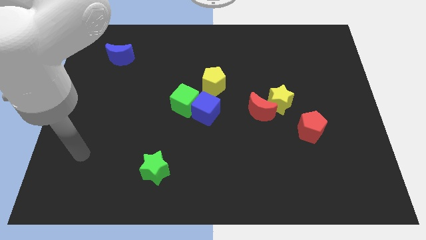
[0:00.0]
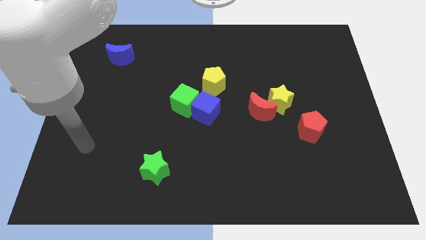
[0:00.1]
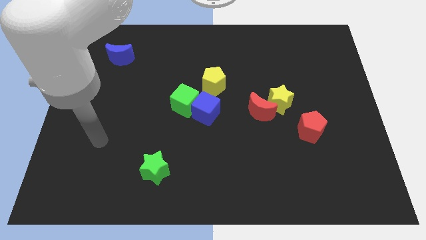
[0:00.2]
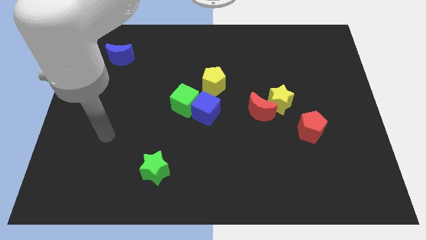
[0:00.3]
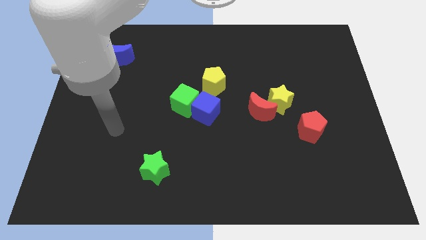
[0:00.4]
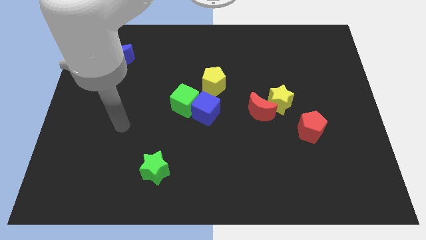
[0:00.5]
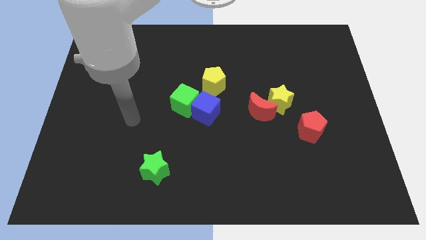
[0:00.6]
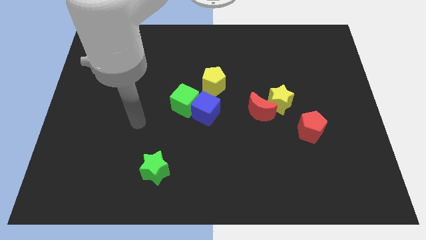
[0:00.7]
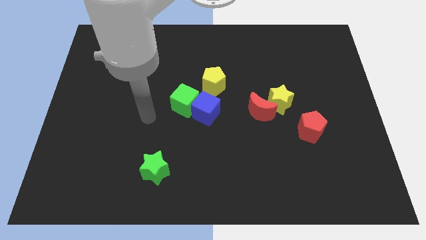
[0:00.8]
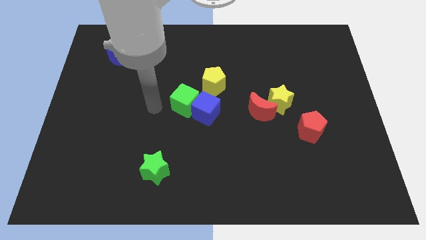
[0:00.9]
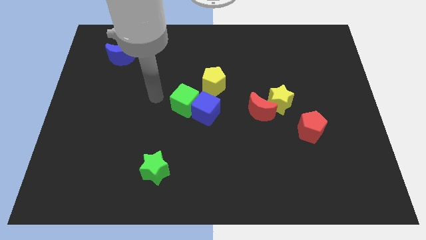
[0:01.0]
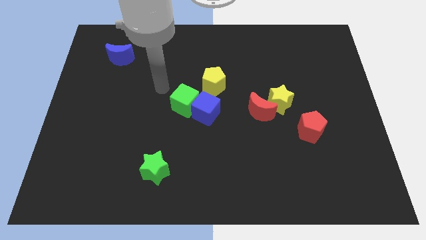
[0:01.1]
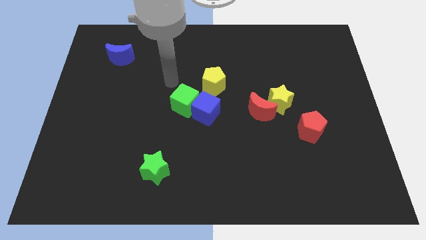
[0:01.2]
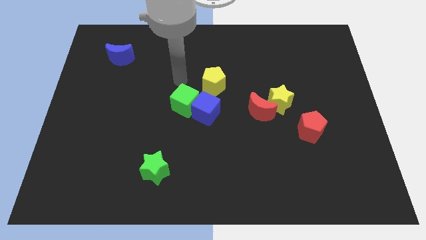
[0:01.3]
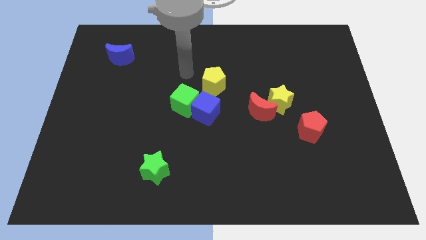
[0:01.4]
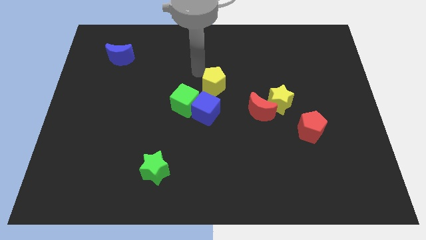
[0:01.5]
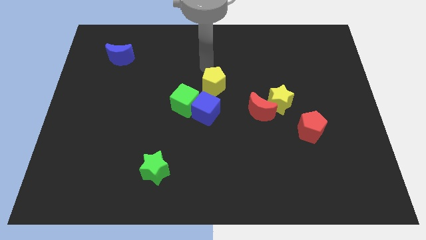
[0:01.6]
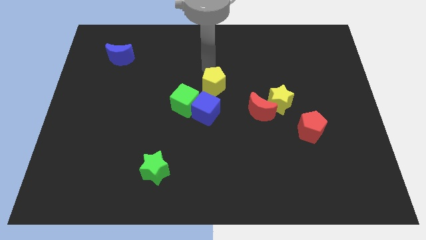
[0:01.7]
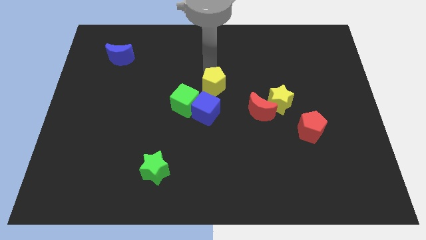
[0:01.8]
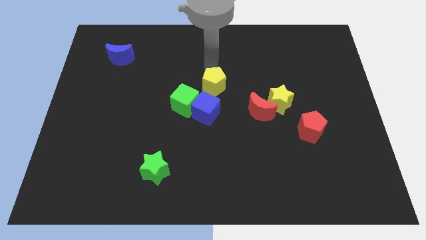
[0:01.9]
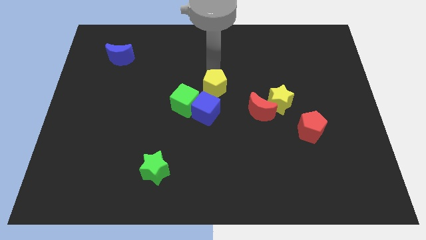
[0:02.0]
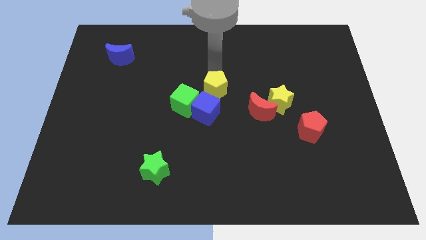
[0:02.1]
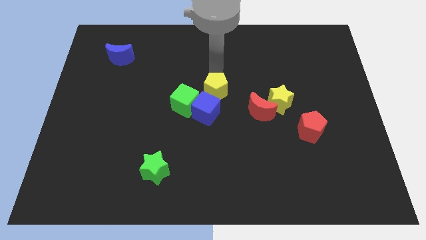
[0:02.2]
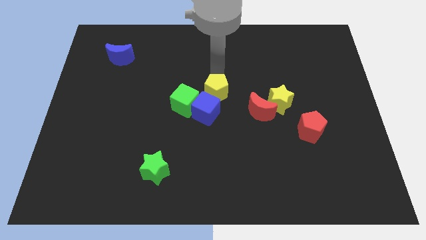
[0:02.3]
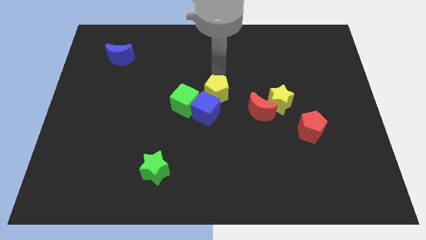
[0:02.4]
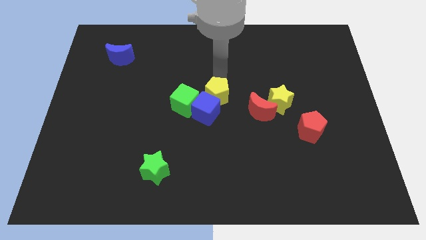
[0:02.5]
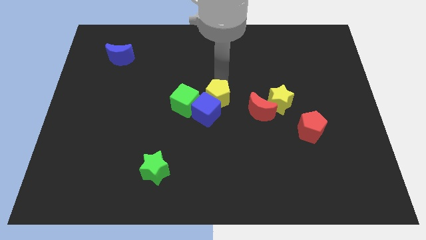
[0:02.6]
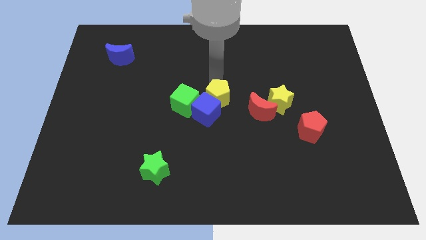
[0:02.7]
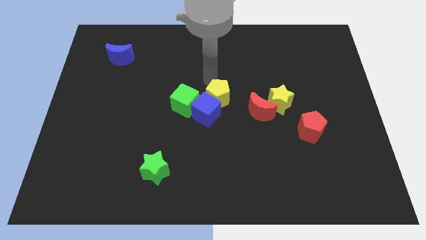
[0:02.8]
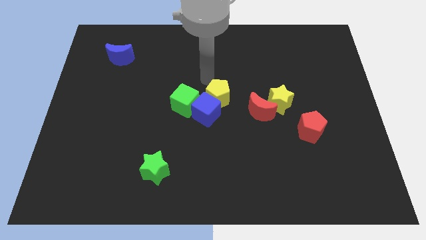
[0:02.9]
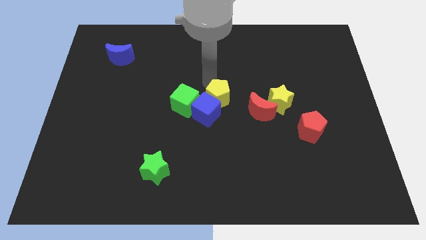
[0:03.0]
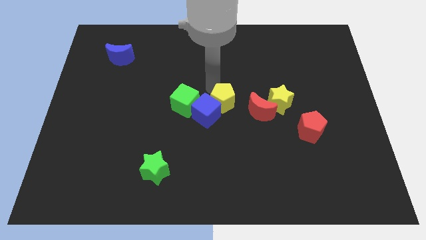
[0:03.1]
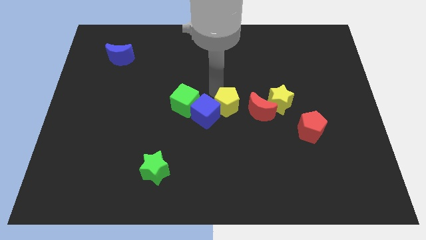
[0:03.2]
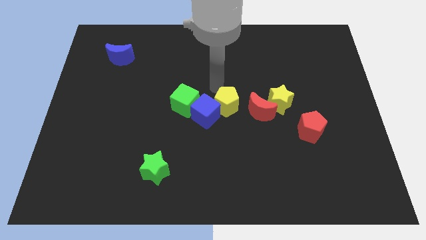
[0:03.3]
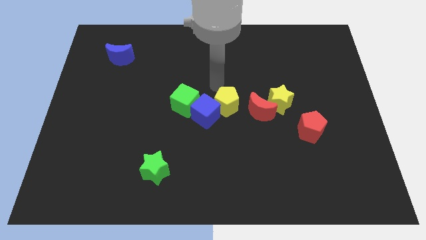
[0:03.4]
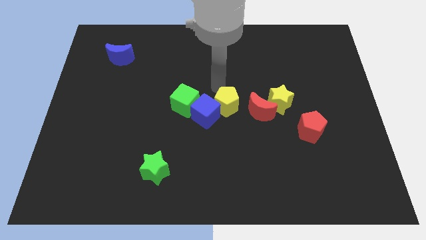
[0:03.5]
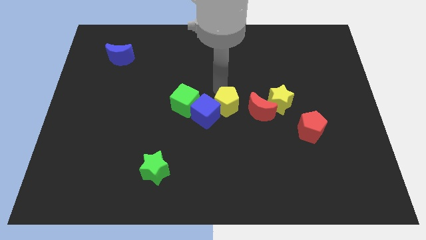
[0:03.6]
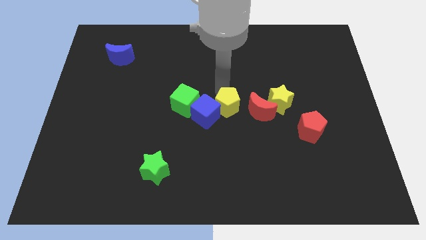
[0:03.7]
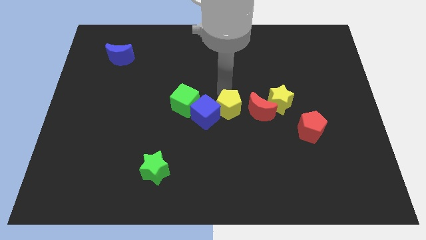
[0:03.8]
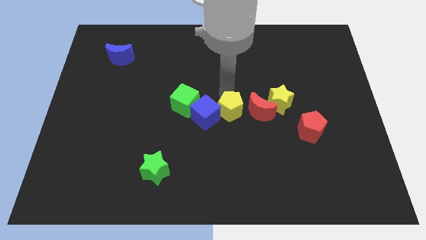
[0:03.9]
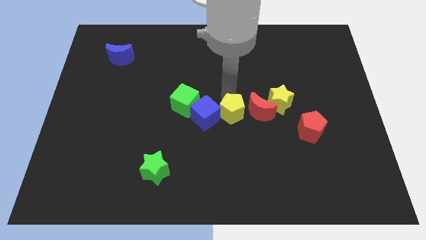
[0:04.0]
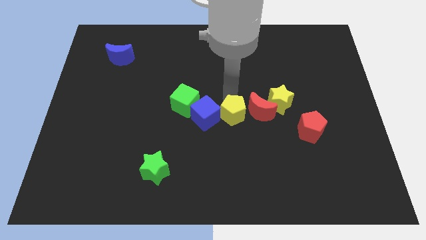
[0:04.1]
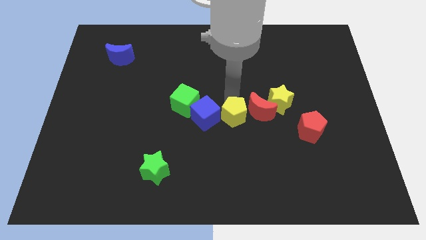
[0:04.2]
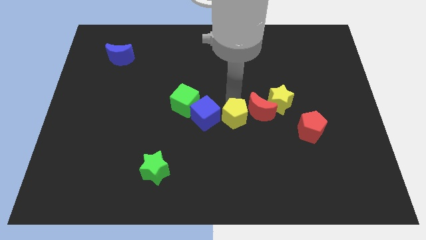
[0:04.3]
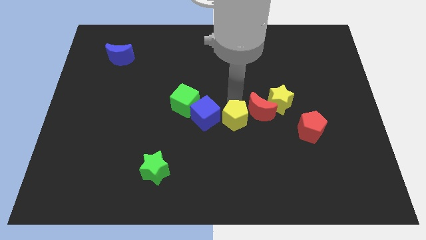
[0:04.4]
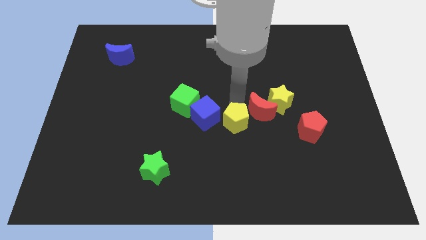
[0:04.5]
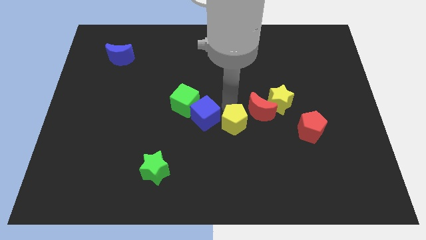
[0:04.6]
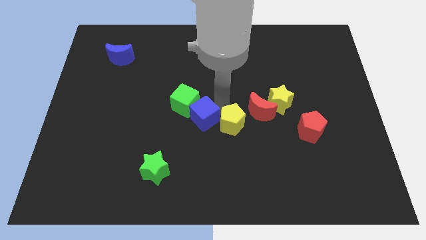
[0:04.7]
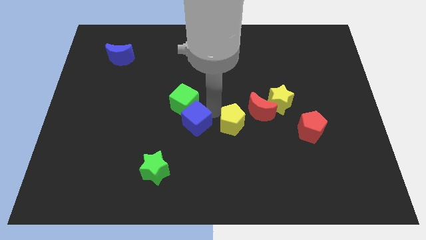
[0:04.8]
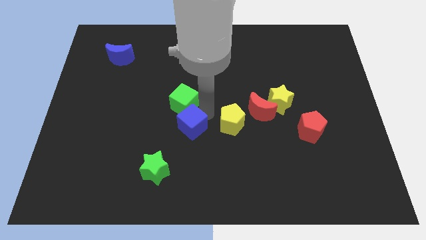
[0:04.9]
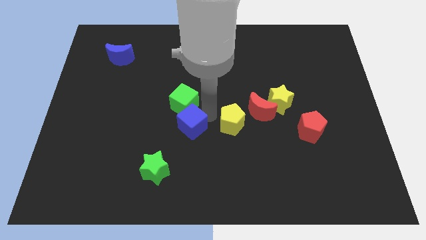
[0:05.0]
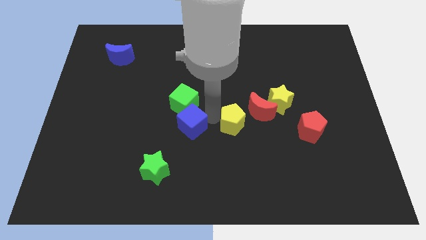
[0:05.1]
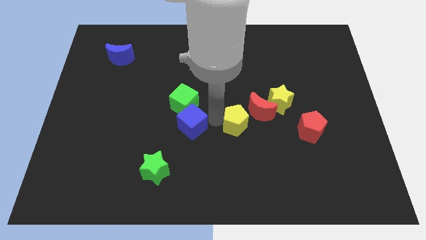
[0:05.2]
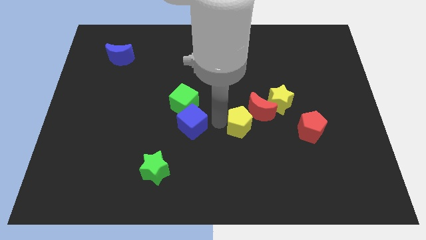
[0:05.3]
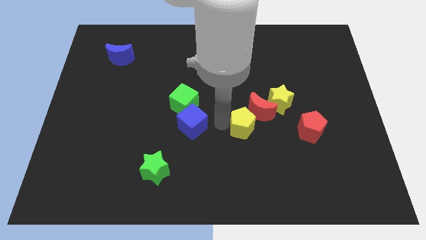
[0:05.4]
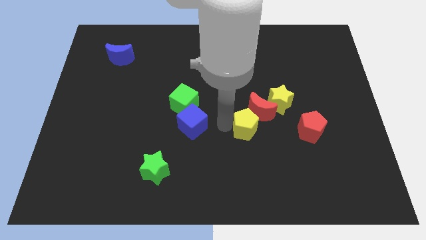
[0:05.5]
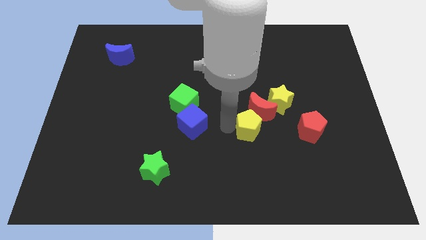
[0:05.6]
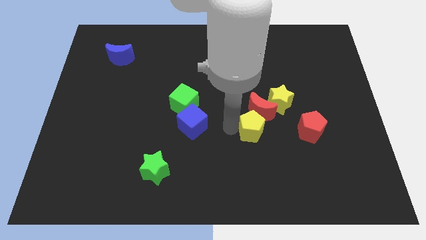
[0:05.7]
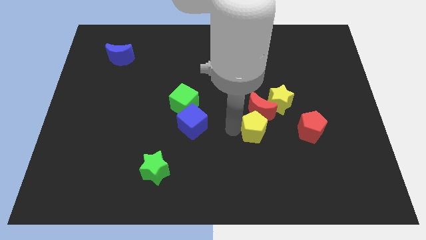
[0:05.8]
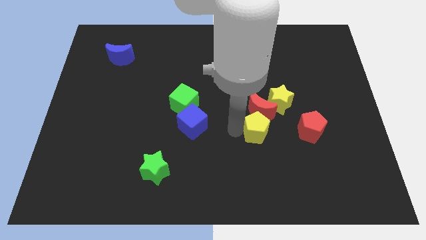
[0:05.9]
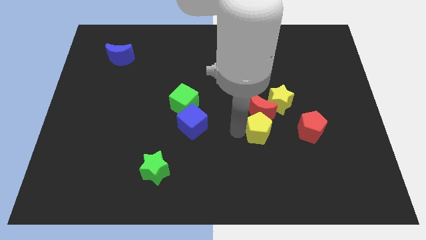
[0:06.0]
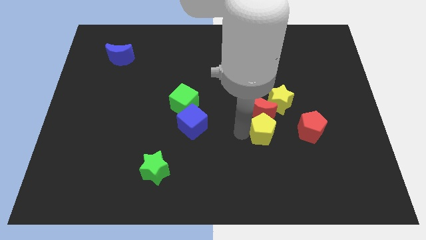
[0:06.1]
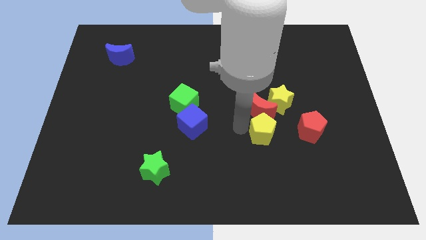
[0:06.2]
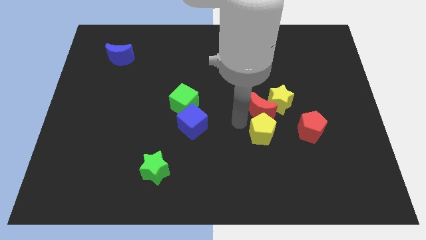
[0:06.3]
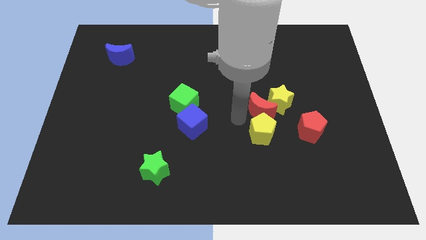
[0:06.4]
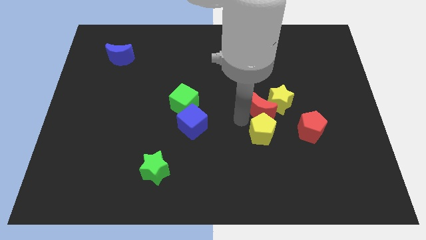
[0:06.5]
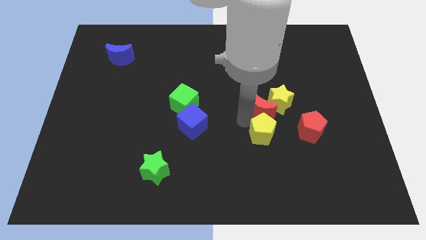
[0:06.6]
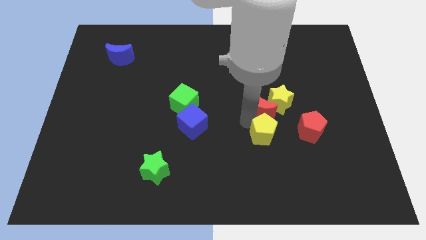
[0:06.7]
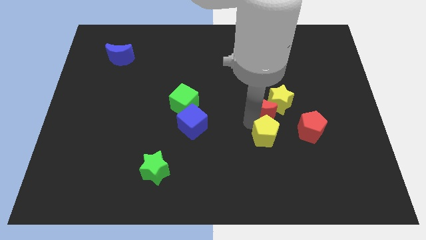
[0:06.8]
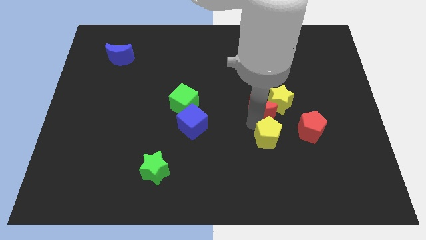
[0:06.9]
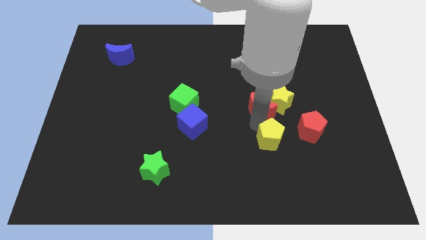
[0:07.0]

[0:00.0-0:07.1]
push the yellow pentagon to the bottom left of the red pentagon
